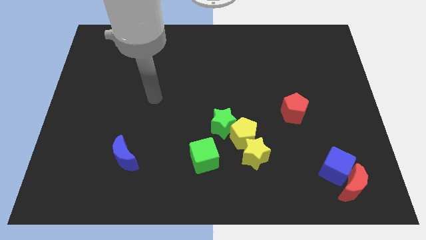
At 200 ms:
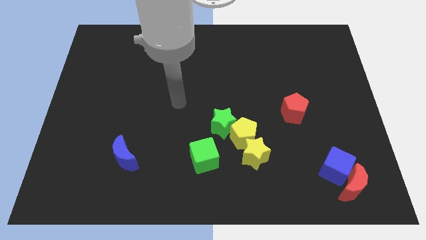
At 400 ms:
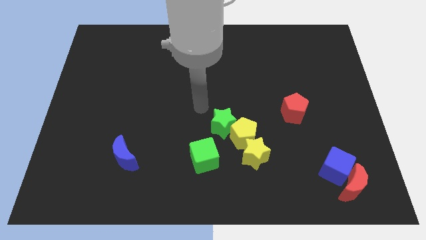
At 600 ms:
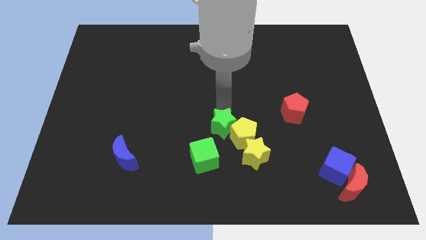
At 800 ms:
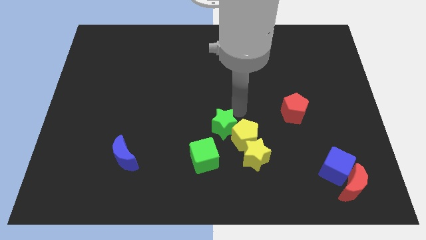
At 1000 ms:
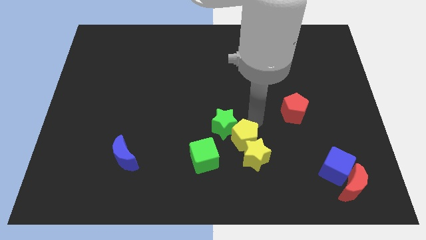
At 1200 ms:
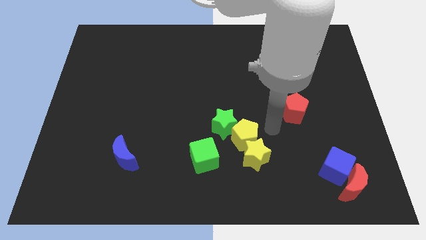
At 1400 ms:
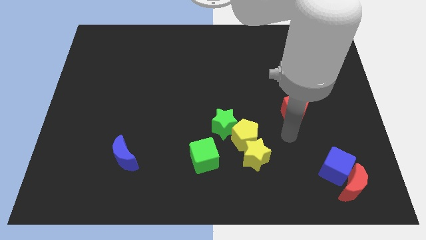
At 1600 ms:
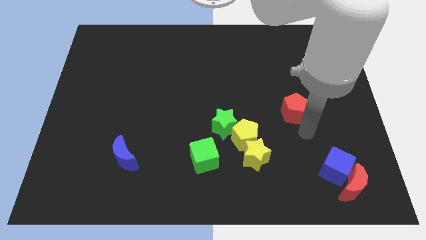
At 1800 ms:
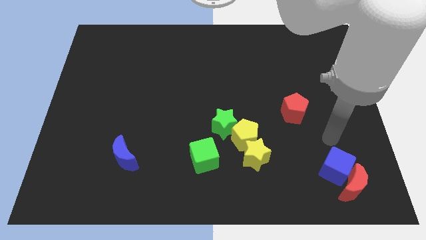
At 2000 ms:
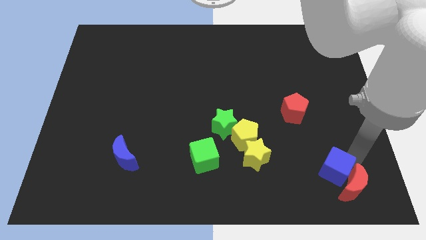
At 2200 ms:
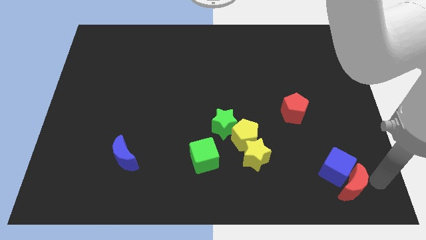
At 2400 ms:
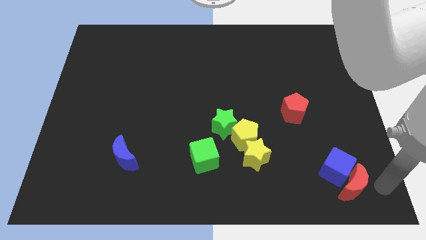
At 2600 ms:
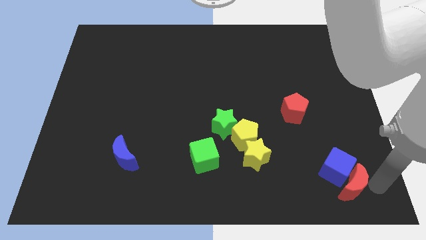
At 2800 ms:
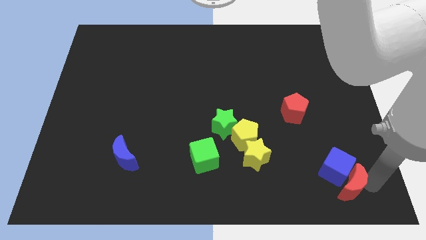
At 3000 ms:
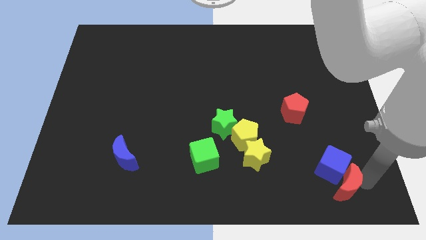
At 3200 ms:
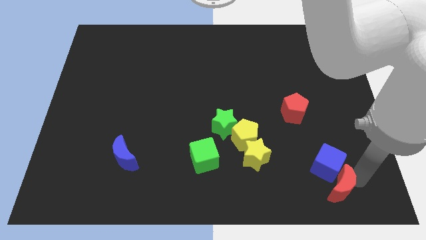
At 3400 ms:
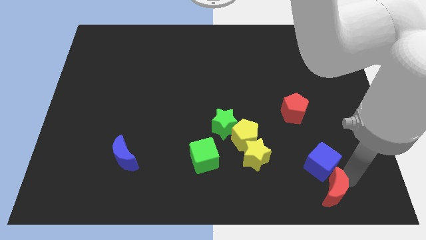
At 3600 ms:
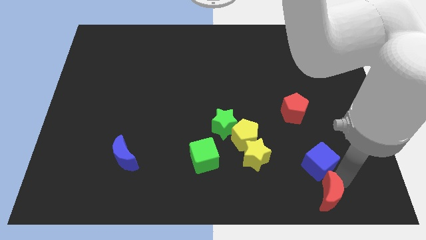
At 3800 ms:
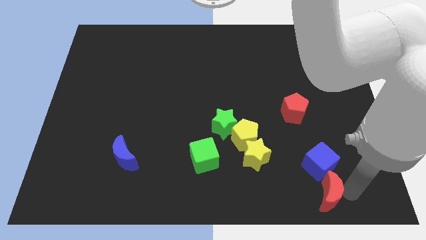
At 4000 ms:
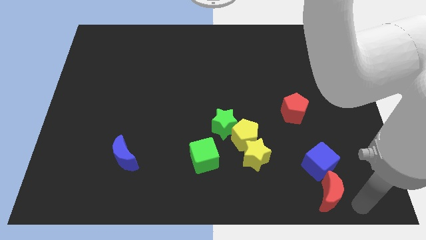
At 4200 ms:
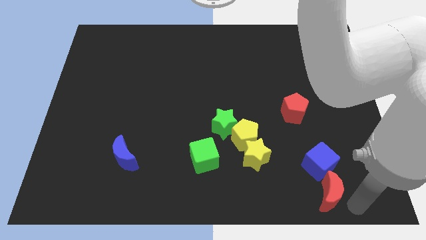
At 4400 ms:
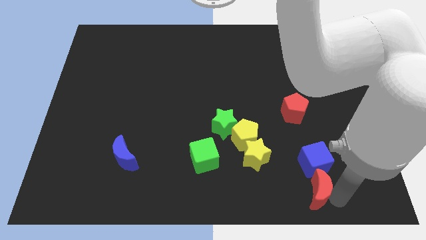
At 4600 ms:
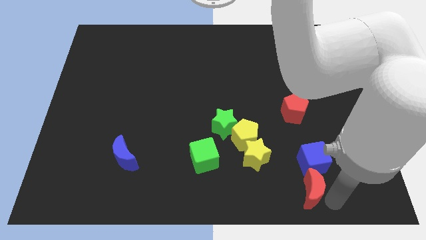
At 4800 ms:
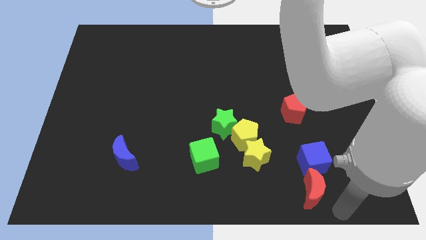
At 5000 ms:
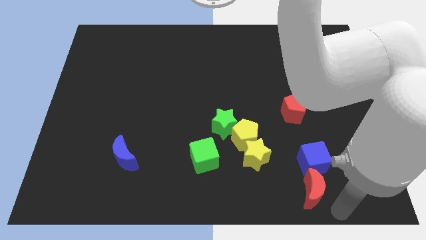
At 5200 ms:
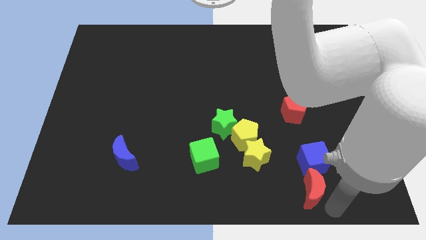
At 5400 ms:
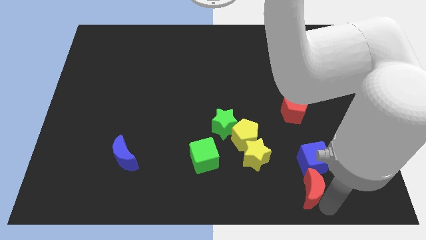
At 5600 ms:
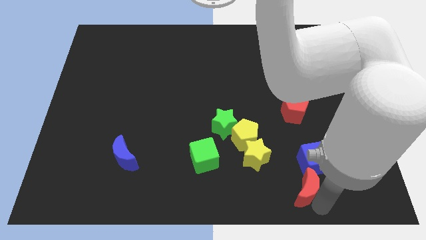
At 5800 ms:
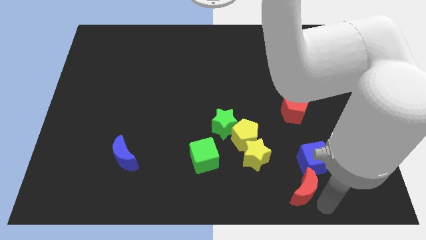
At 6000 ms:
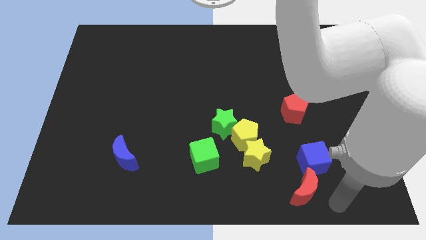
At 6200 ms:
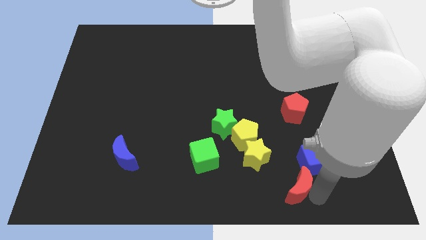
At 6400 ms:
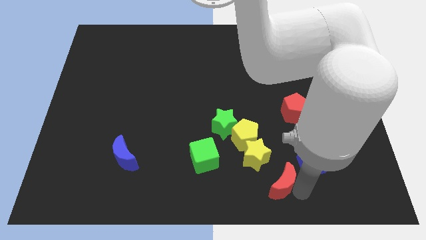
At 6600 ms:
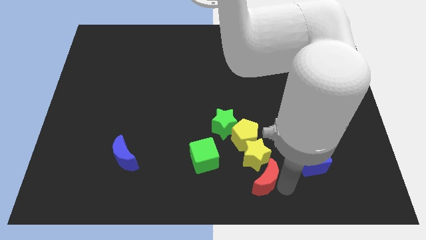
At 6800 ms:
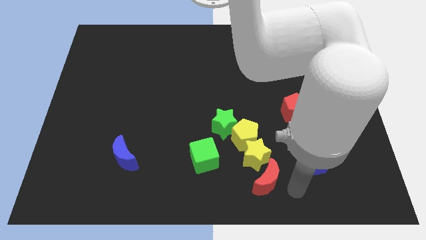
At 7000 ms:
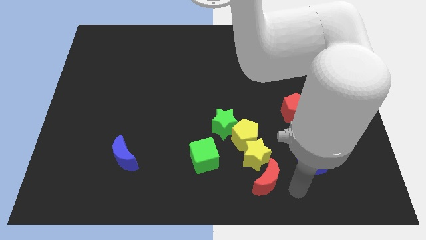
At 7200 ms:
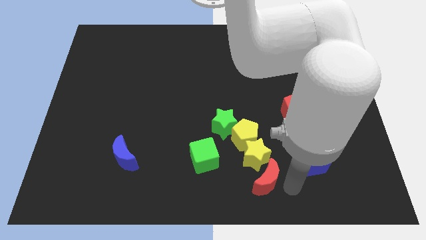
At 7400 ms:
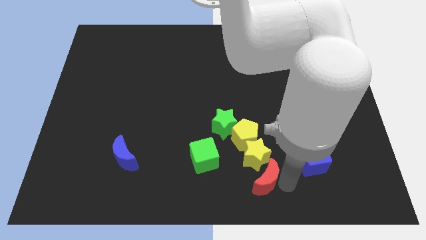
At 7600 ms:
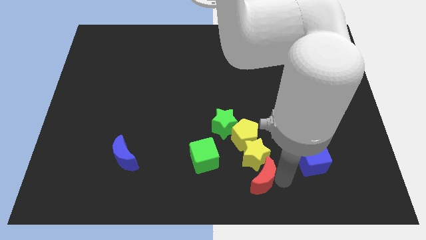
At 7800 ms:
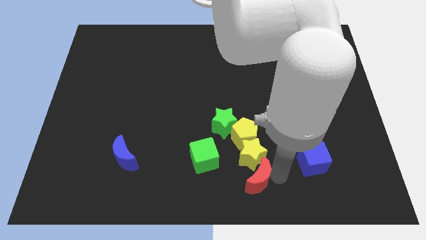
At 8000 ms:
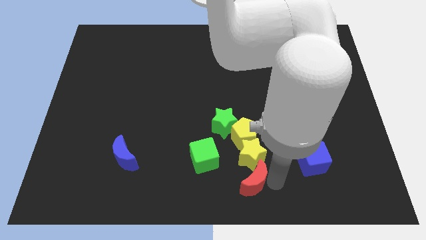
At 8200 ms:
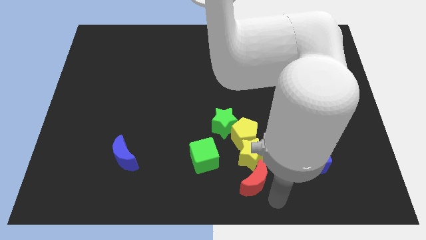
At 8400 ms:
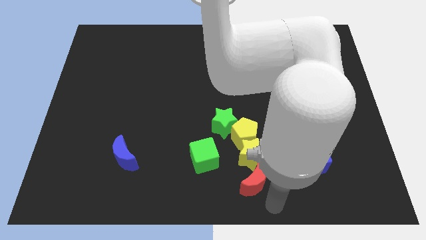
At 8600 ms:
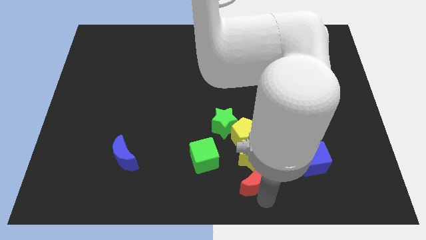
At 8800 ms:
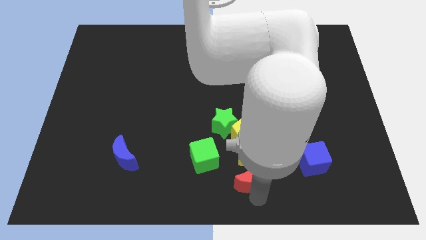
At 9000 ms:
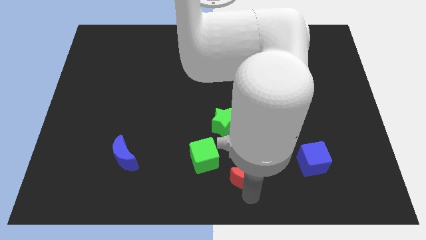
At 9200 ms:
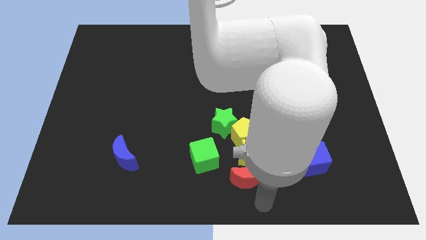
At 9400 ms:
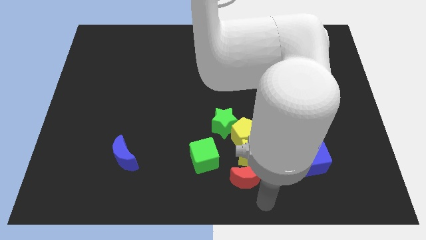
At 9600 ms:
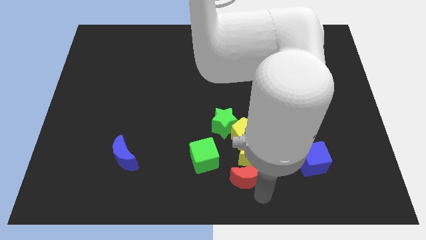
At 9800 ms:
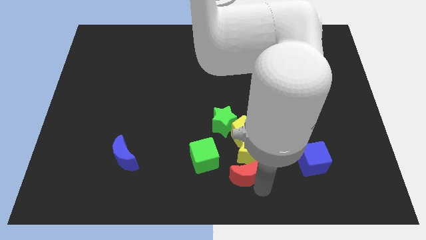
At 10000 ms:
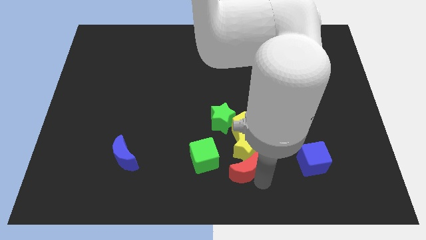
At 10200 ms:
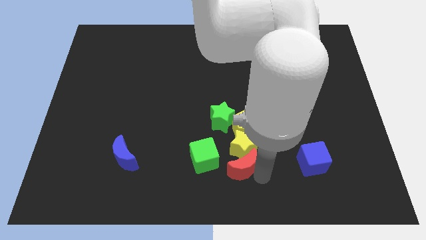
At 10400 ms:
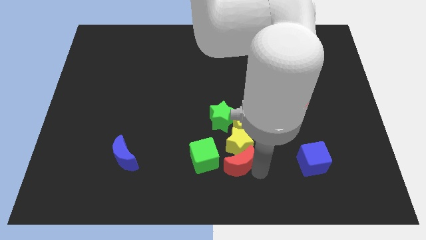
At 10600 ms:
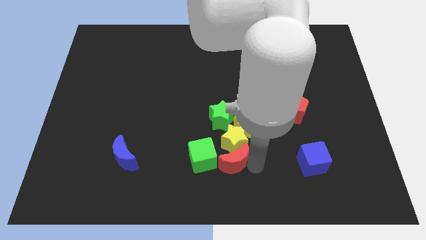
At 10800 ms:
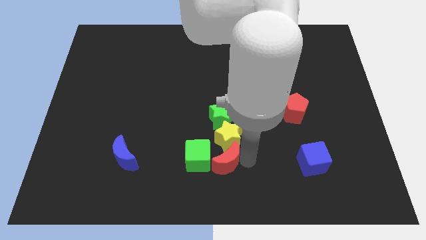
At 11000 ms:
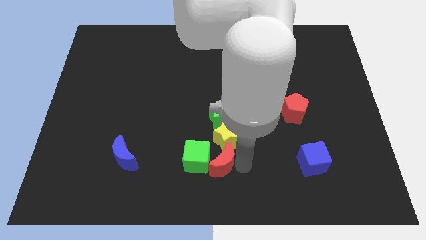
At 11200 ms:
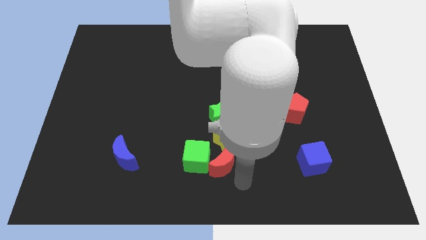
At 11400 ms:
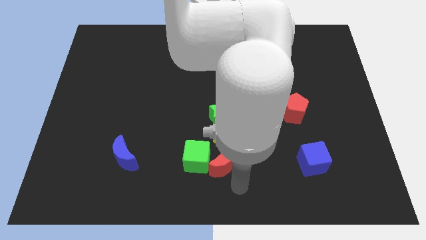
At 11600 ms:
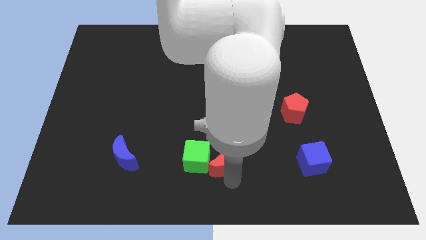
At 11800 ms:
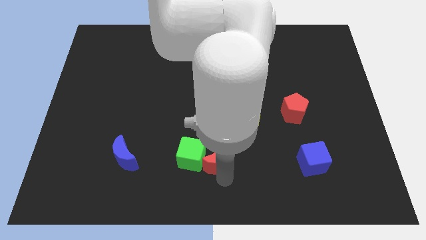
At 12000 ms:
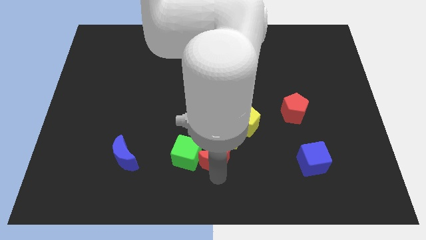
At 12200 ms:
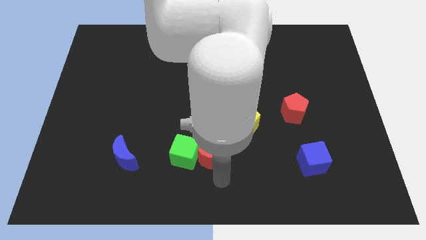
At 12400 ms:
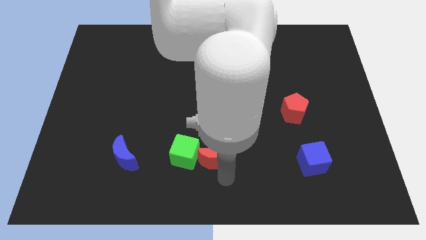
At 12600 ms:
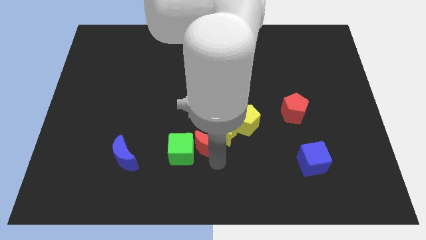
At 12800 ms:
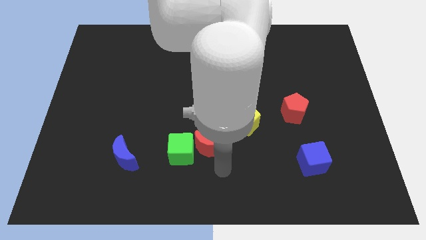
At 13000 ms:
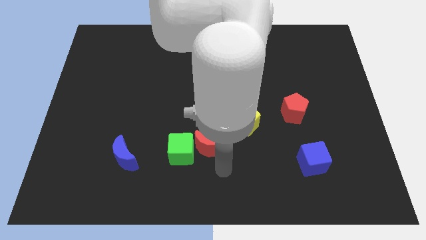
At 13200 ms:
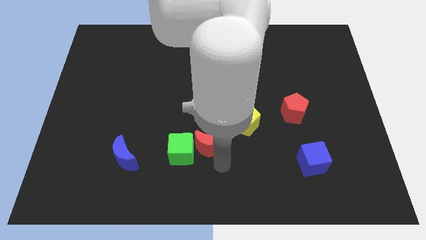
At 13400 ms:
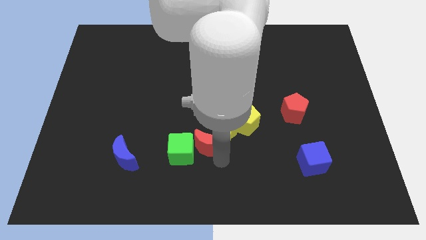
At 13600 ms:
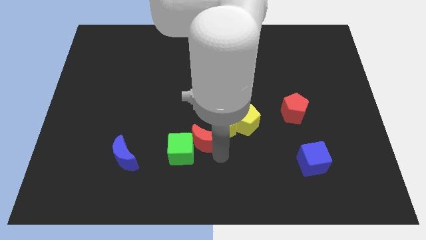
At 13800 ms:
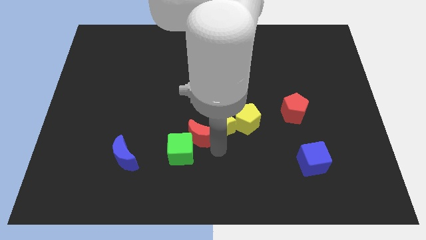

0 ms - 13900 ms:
push the red moon to the top side of the green cube
